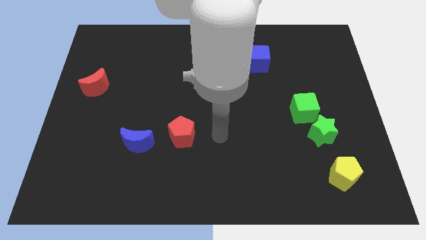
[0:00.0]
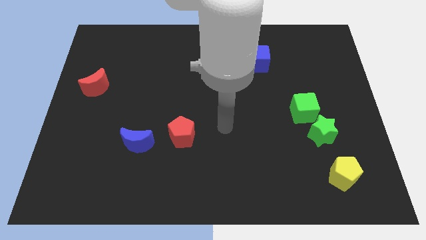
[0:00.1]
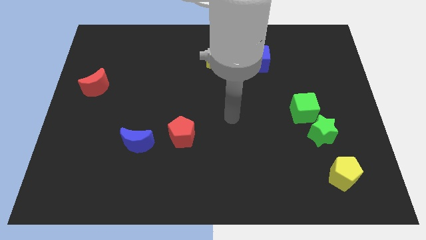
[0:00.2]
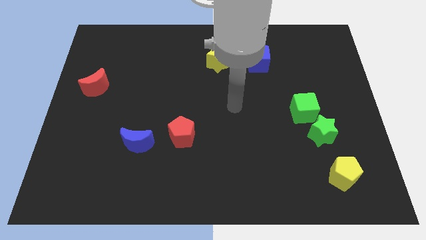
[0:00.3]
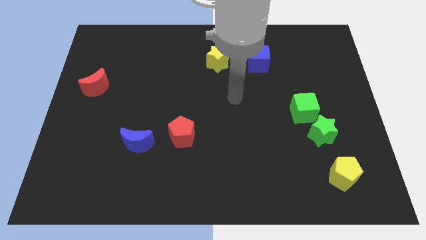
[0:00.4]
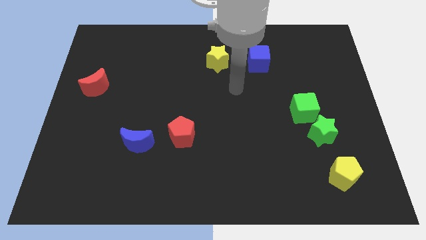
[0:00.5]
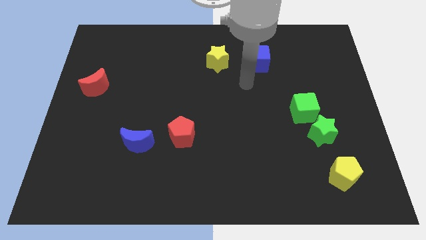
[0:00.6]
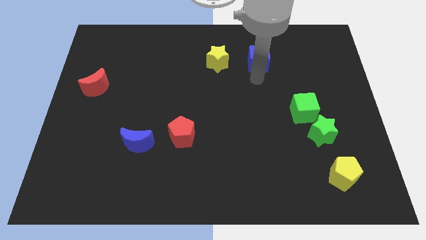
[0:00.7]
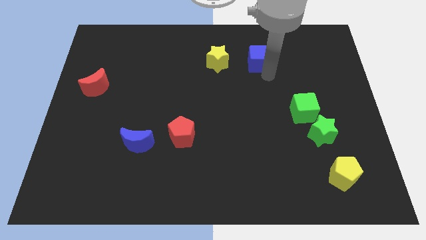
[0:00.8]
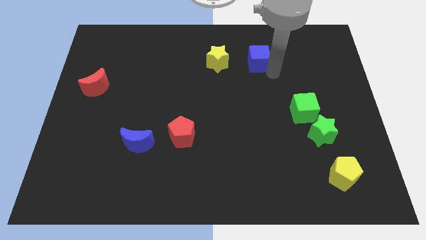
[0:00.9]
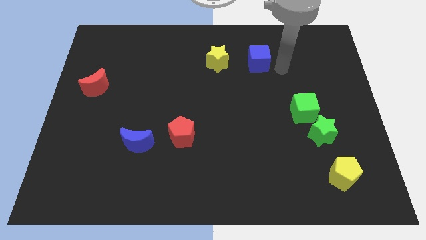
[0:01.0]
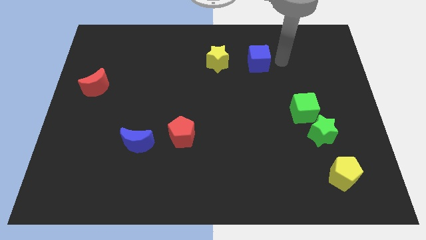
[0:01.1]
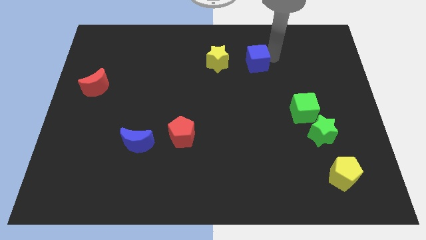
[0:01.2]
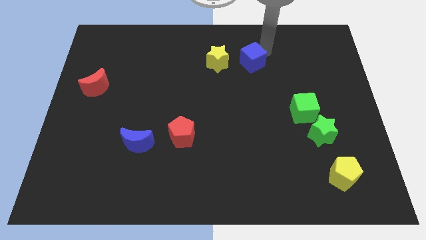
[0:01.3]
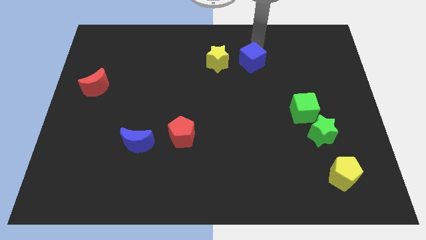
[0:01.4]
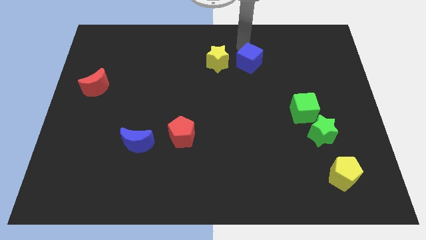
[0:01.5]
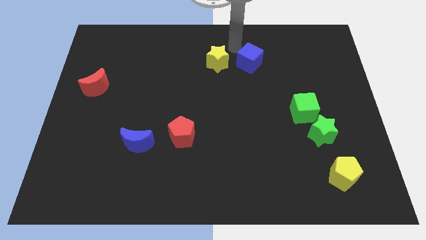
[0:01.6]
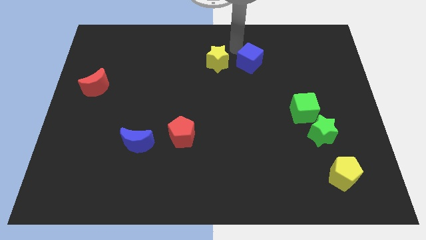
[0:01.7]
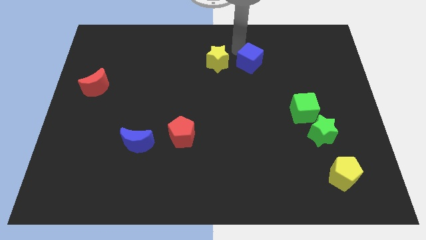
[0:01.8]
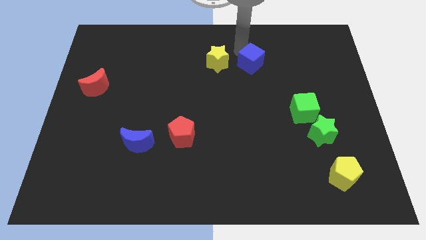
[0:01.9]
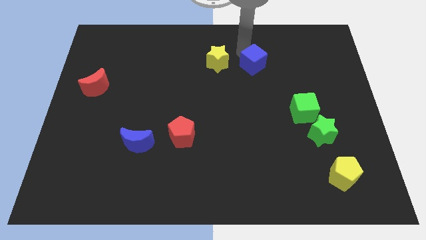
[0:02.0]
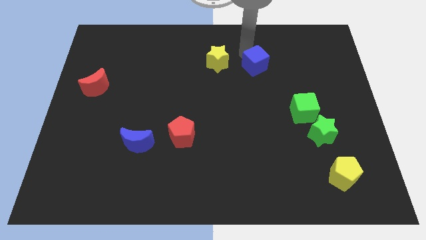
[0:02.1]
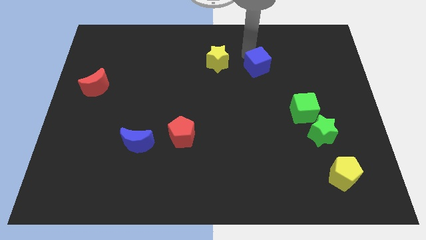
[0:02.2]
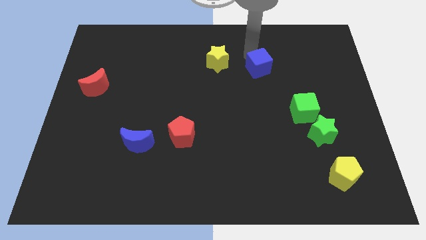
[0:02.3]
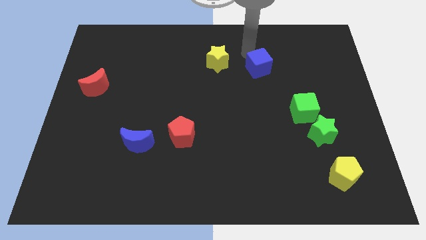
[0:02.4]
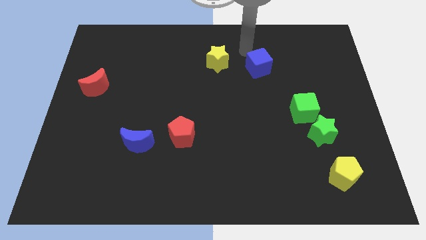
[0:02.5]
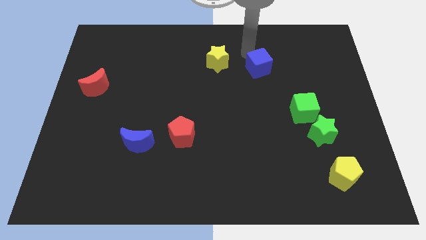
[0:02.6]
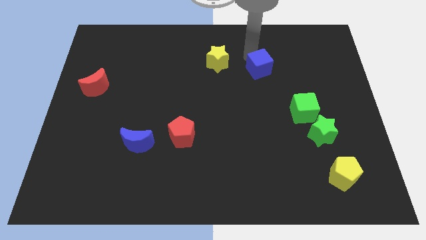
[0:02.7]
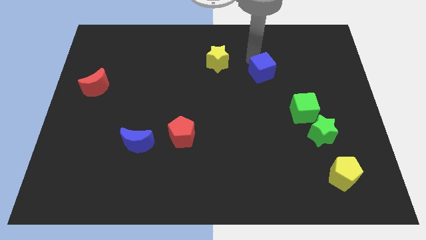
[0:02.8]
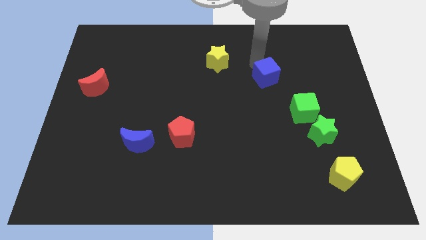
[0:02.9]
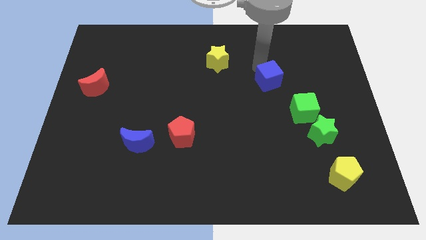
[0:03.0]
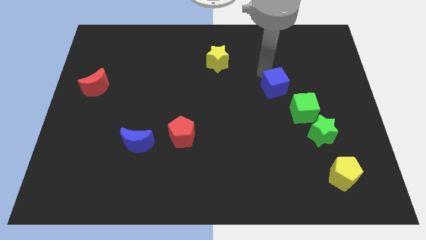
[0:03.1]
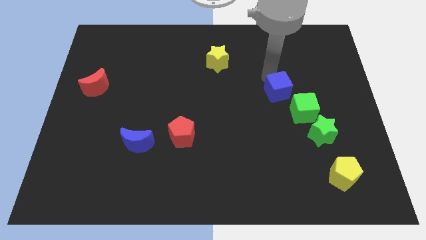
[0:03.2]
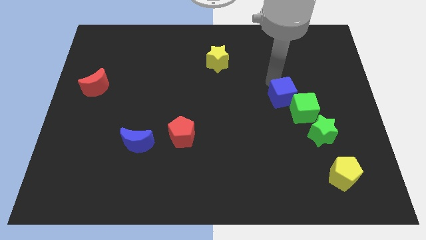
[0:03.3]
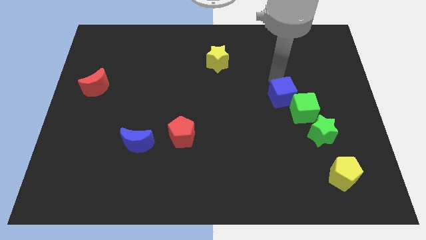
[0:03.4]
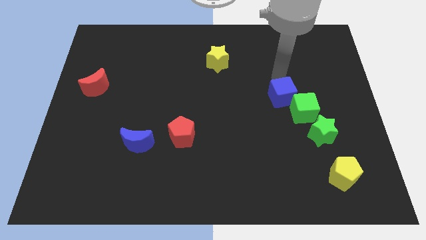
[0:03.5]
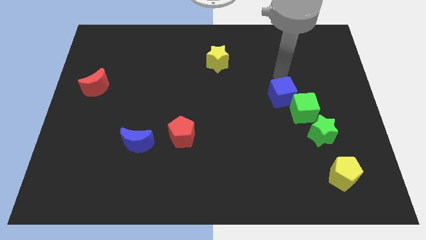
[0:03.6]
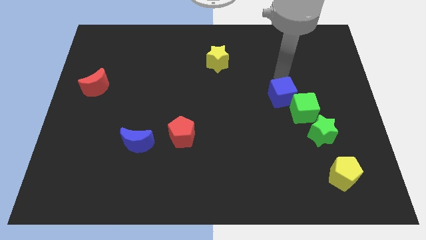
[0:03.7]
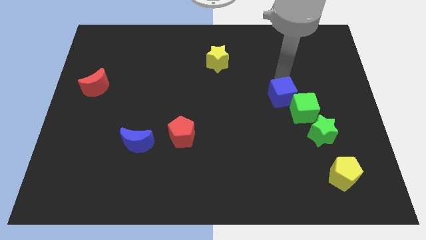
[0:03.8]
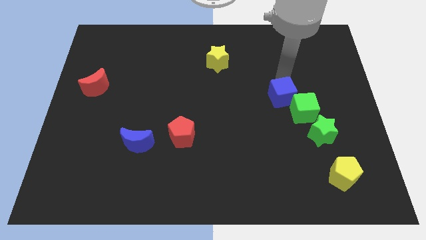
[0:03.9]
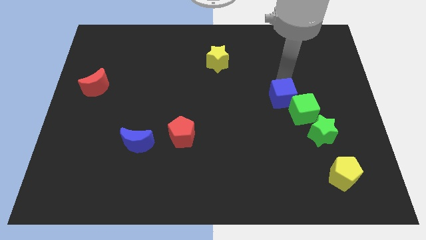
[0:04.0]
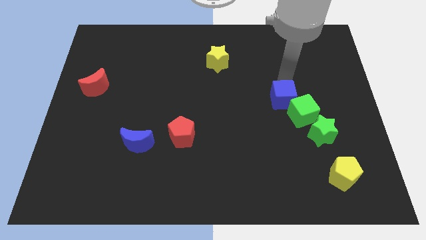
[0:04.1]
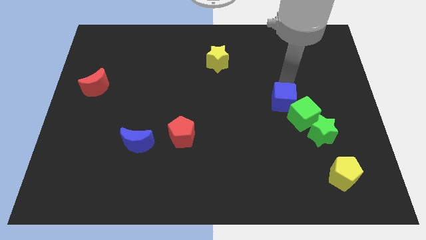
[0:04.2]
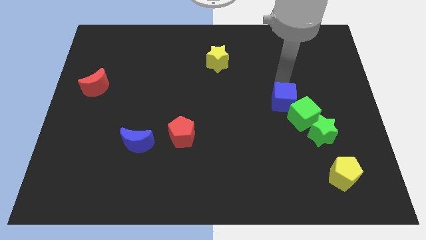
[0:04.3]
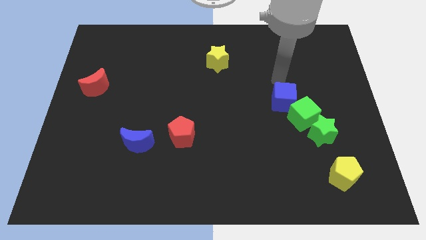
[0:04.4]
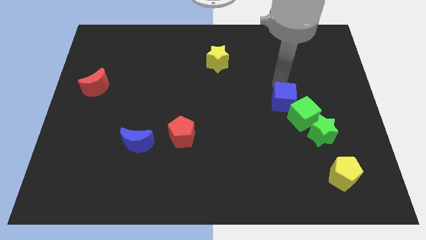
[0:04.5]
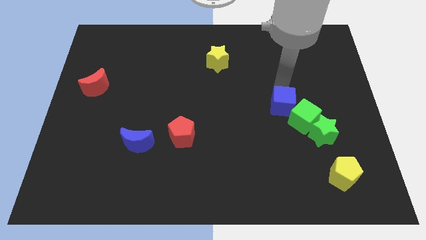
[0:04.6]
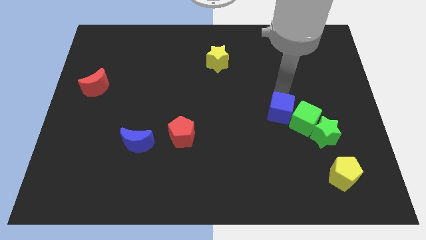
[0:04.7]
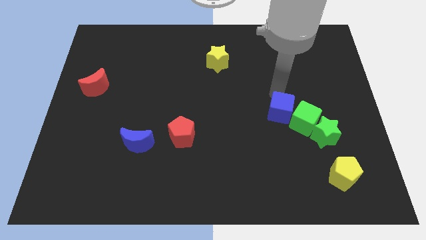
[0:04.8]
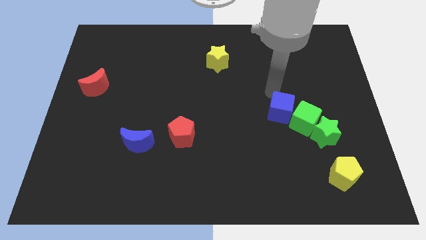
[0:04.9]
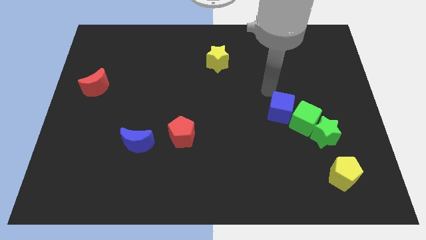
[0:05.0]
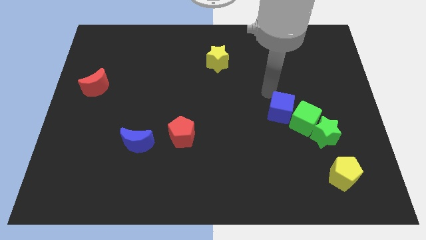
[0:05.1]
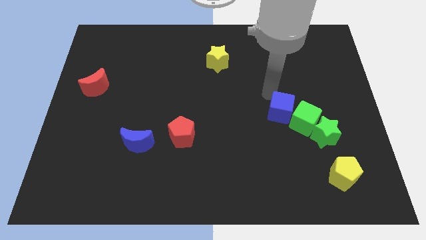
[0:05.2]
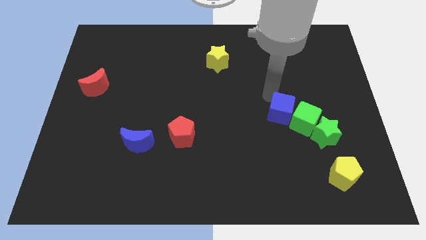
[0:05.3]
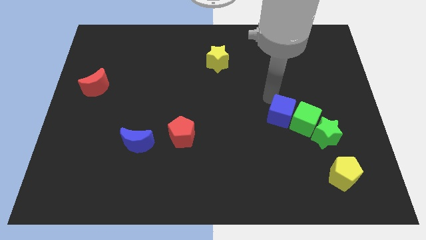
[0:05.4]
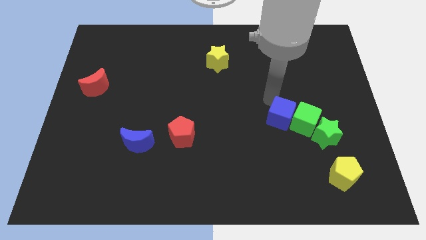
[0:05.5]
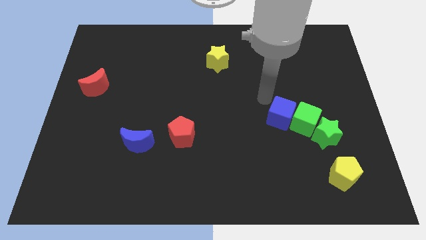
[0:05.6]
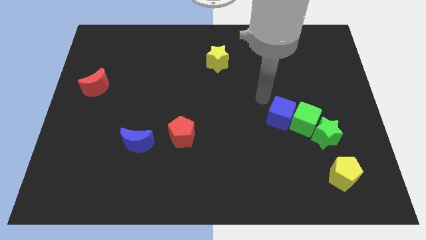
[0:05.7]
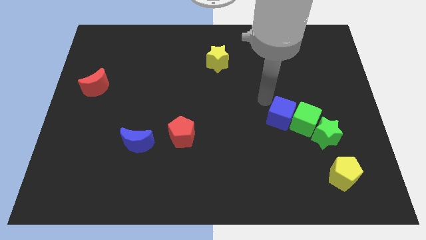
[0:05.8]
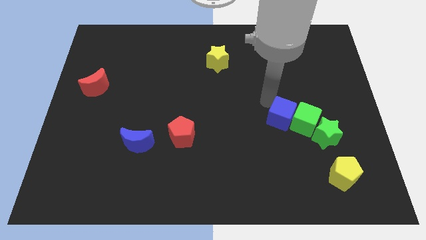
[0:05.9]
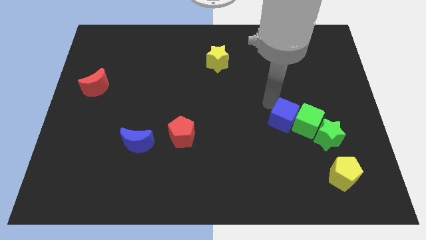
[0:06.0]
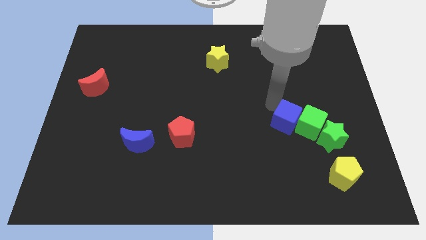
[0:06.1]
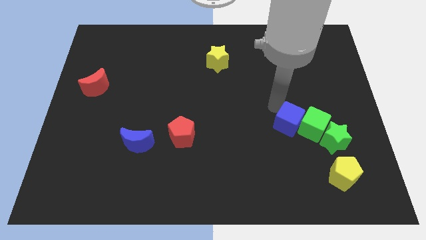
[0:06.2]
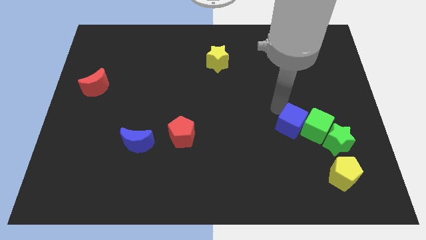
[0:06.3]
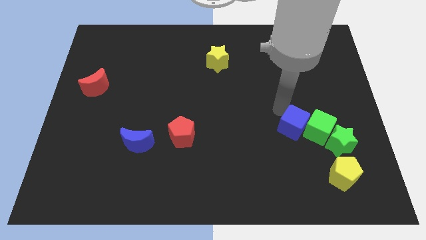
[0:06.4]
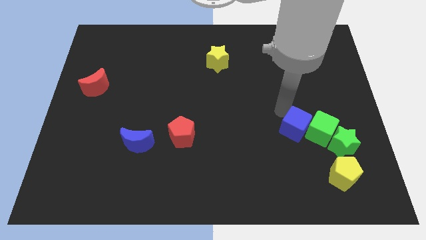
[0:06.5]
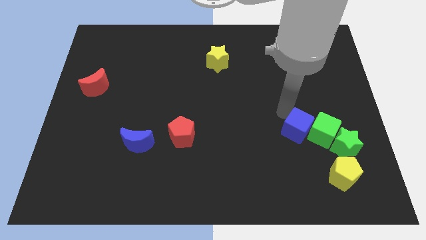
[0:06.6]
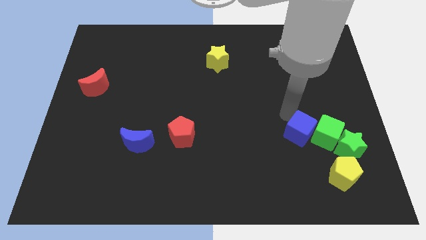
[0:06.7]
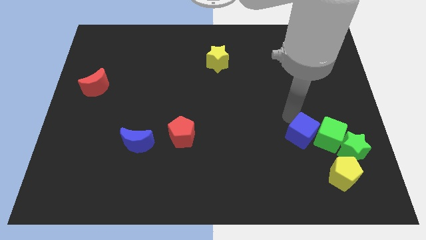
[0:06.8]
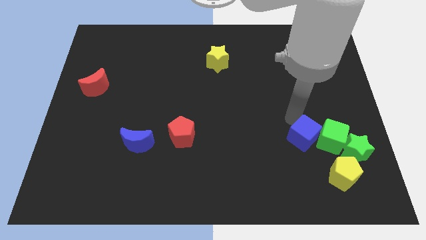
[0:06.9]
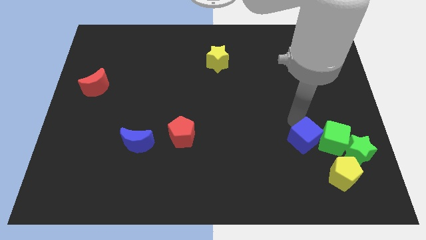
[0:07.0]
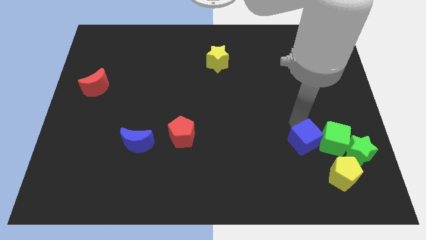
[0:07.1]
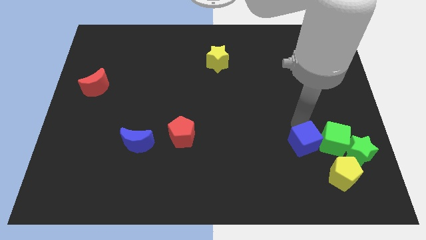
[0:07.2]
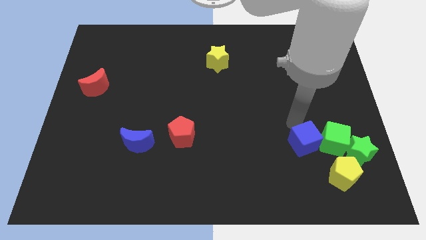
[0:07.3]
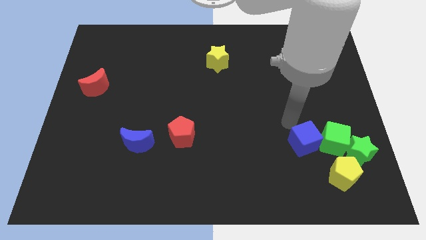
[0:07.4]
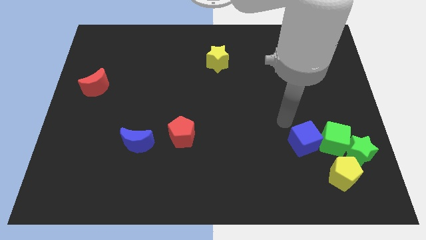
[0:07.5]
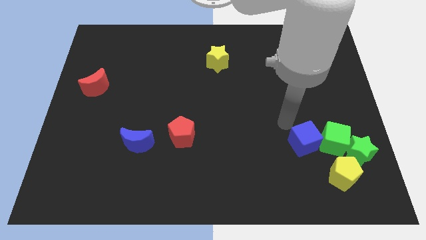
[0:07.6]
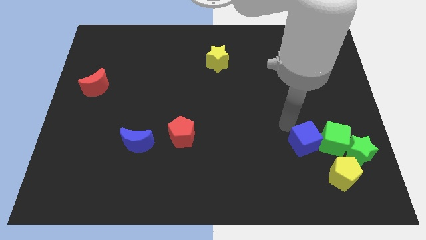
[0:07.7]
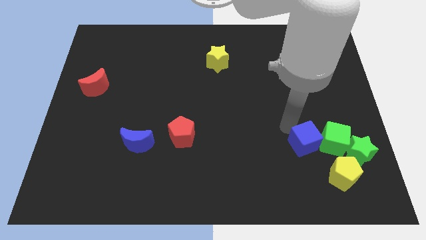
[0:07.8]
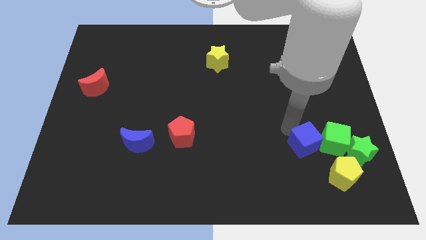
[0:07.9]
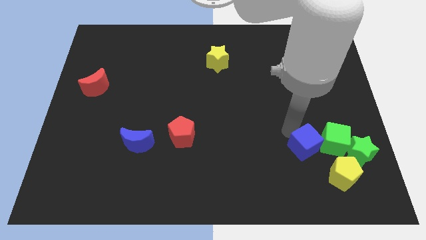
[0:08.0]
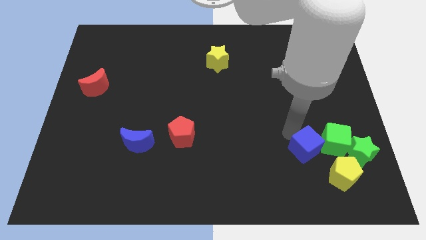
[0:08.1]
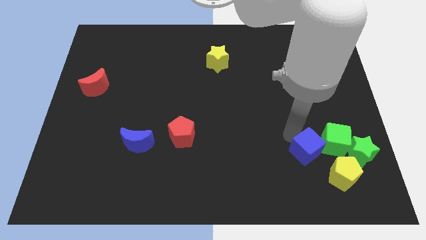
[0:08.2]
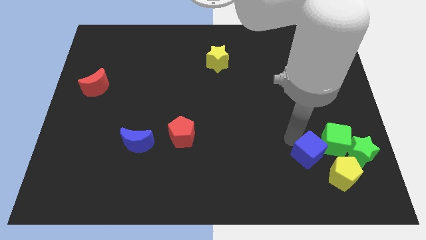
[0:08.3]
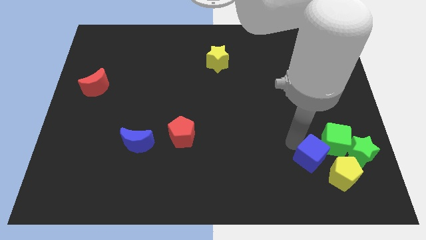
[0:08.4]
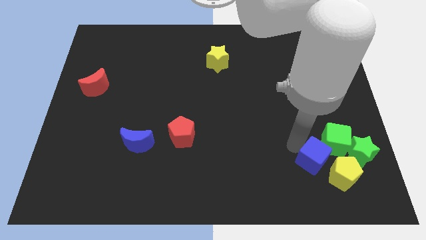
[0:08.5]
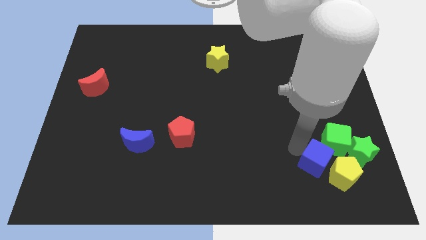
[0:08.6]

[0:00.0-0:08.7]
push the blue cube close to the yellow pentagon
